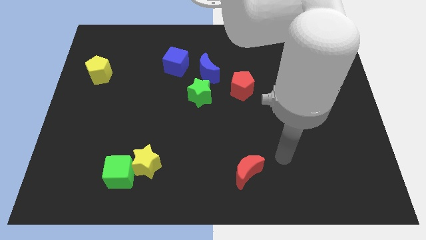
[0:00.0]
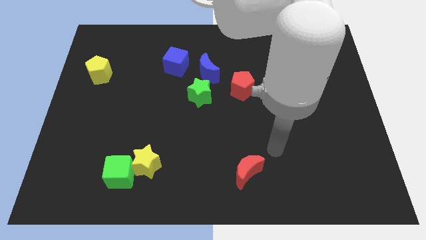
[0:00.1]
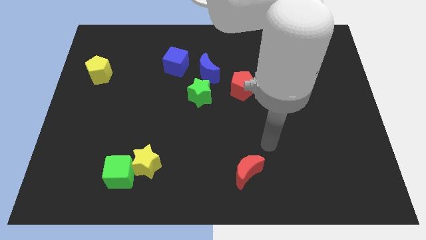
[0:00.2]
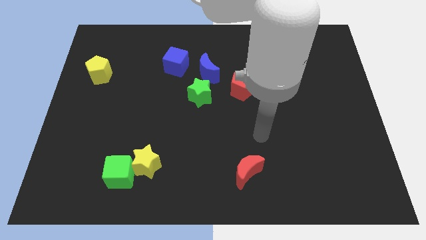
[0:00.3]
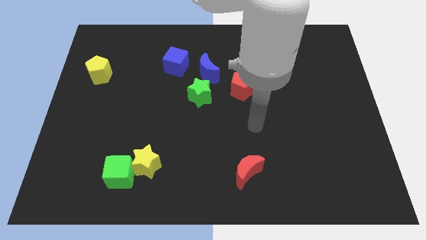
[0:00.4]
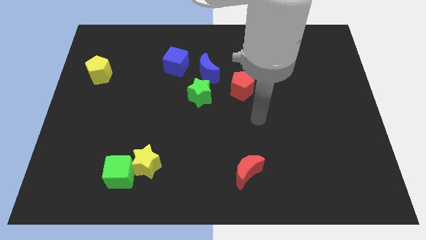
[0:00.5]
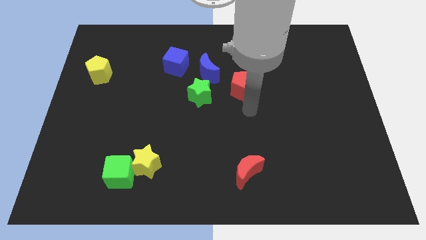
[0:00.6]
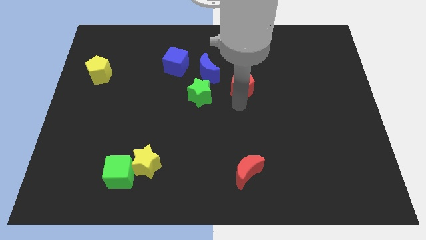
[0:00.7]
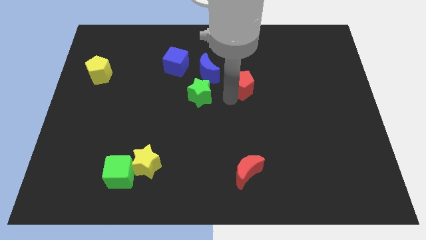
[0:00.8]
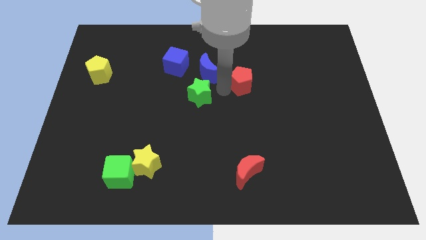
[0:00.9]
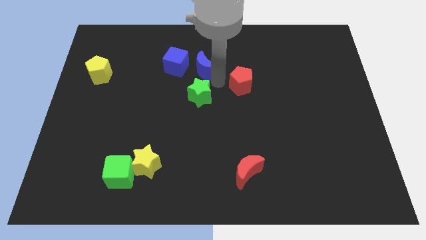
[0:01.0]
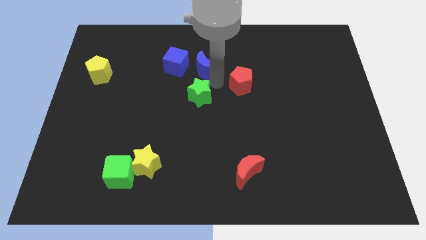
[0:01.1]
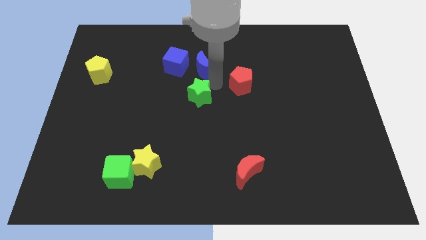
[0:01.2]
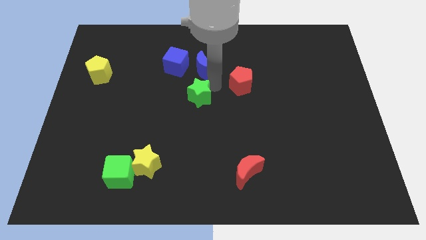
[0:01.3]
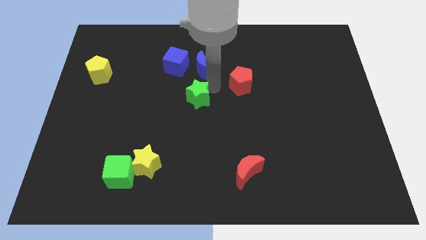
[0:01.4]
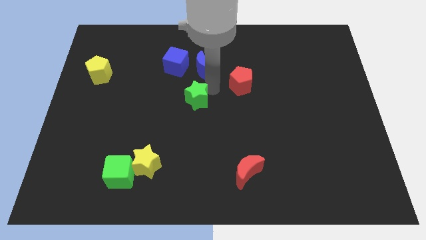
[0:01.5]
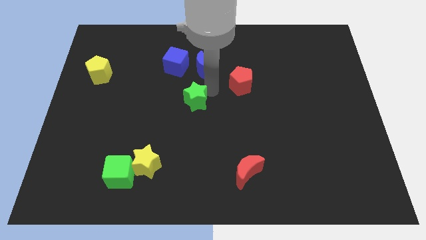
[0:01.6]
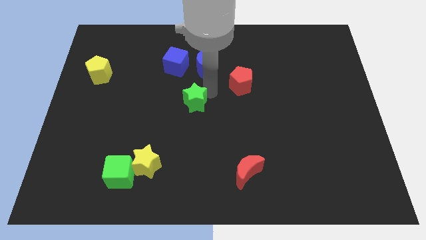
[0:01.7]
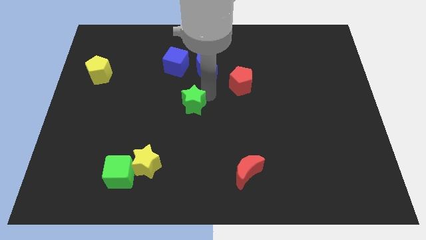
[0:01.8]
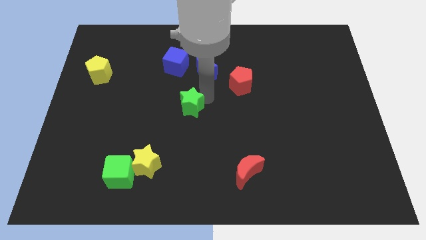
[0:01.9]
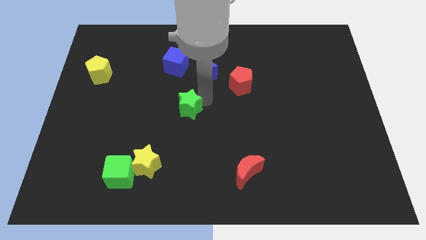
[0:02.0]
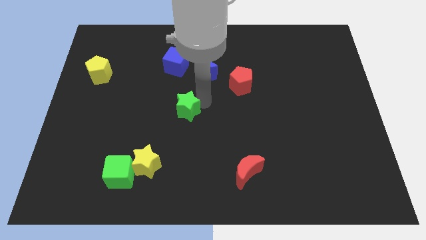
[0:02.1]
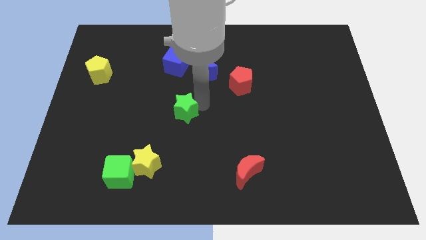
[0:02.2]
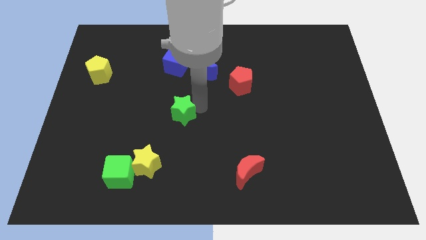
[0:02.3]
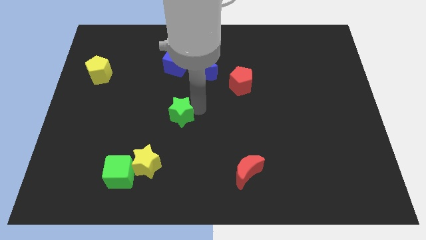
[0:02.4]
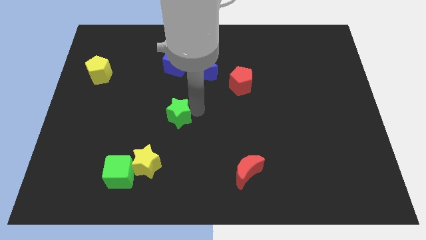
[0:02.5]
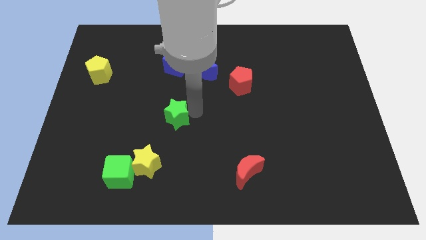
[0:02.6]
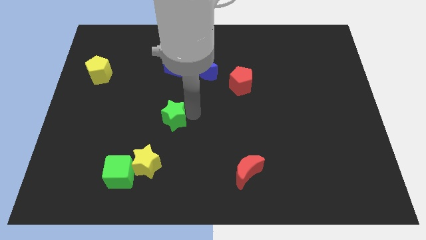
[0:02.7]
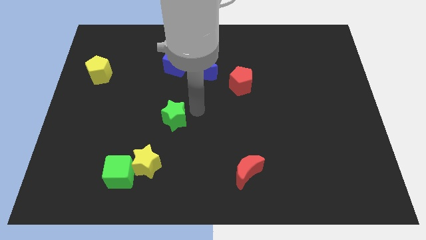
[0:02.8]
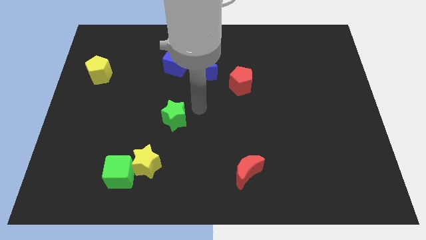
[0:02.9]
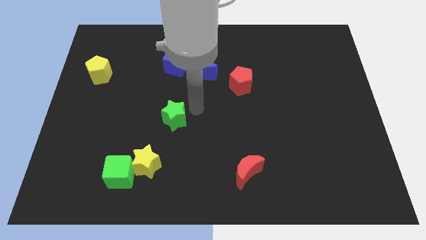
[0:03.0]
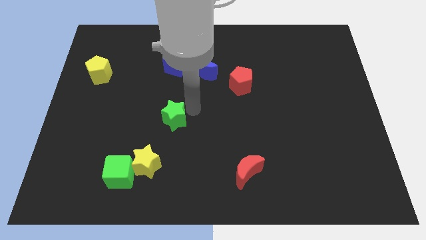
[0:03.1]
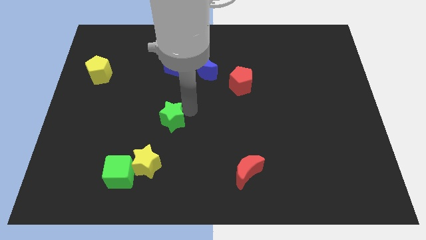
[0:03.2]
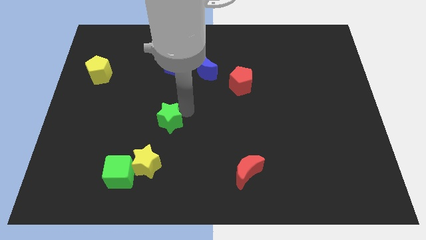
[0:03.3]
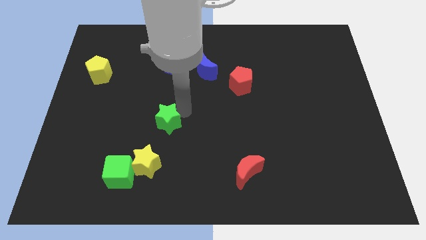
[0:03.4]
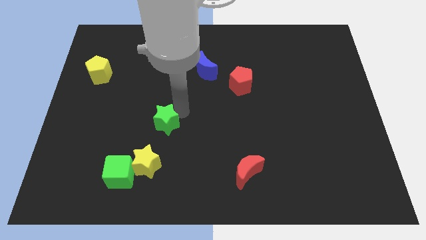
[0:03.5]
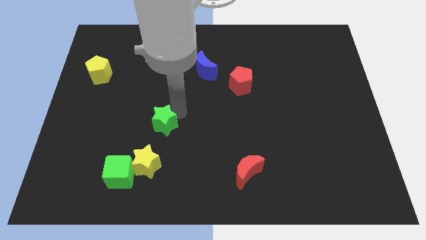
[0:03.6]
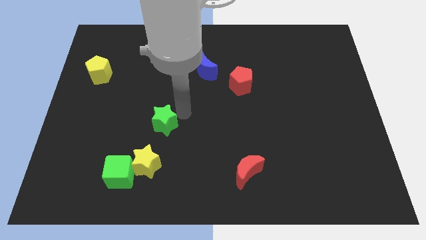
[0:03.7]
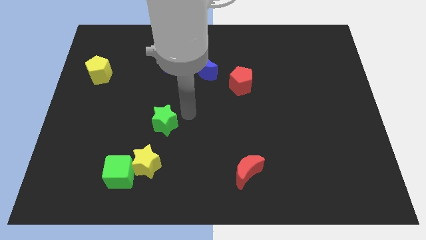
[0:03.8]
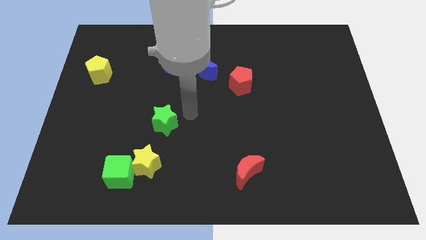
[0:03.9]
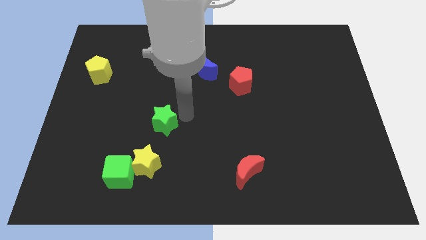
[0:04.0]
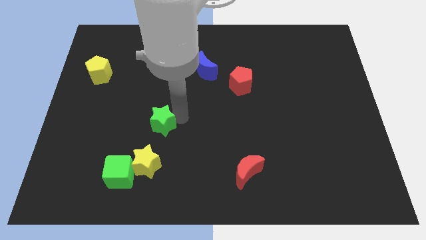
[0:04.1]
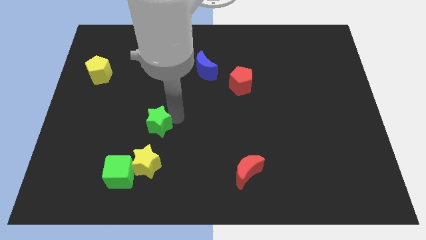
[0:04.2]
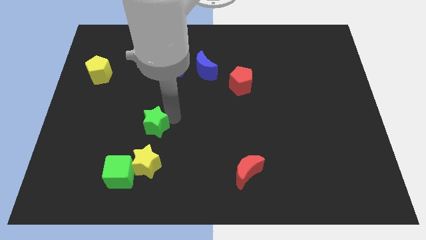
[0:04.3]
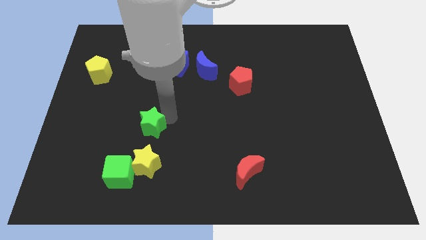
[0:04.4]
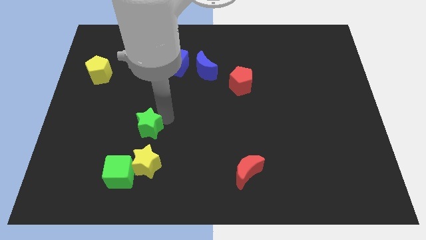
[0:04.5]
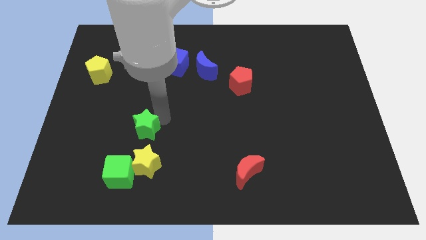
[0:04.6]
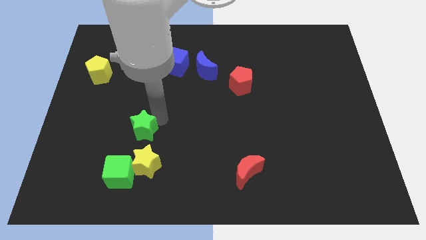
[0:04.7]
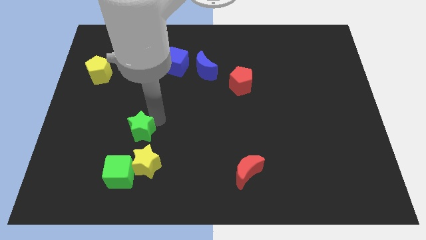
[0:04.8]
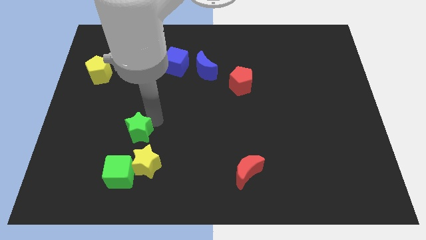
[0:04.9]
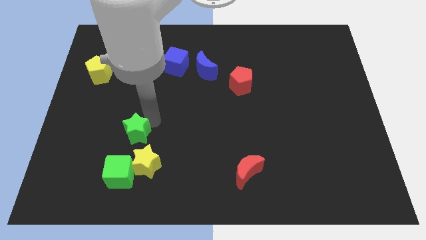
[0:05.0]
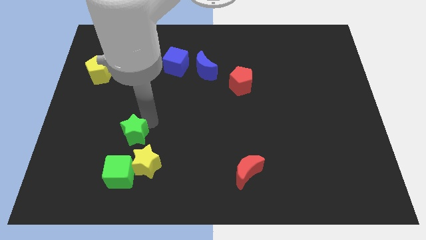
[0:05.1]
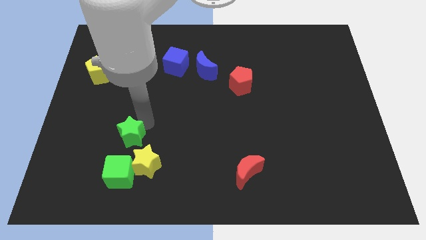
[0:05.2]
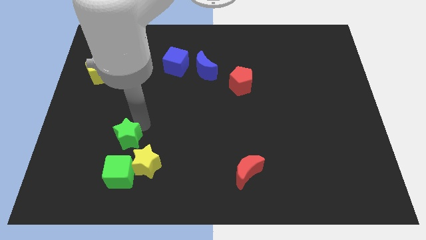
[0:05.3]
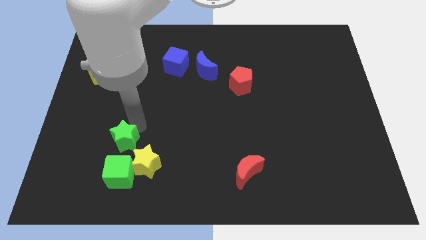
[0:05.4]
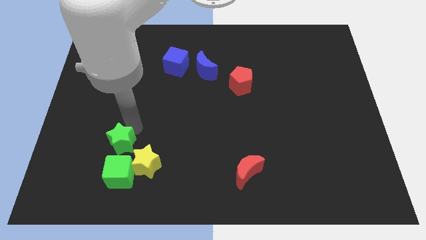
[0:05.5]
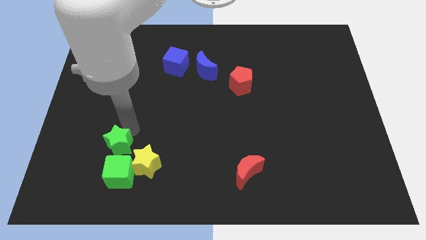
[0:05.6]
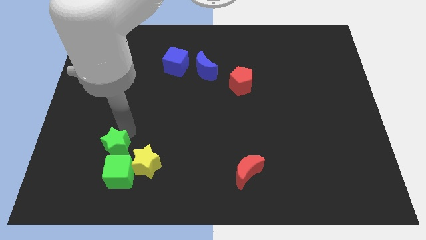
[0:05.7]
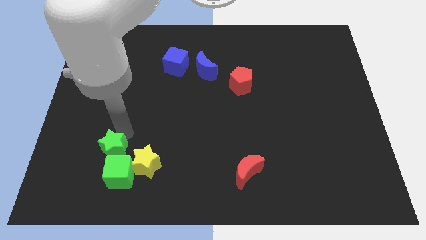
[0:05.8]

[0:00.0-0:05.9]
move the green star close to the green cube

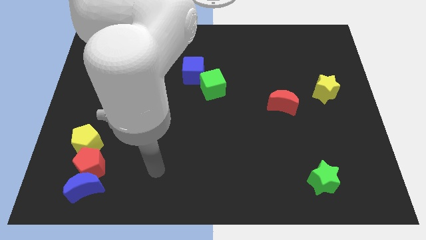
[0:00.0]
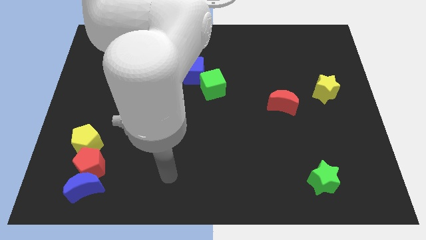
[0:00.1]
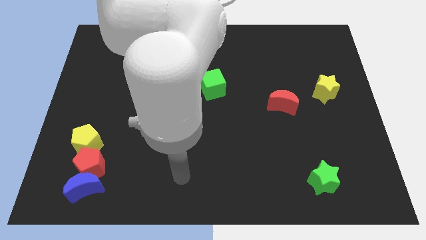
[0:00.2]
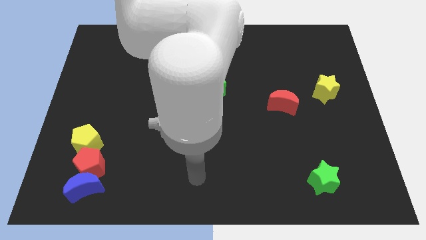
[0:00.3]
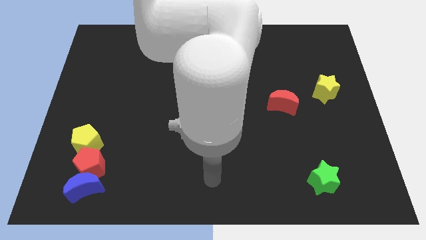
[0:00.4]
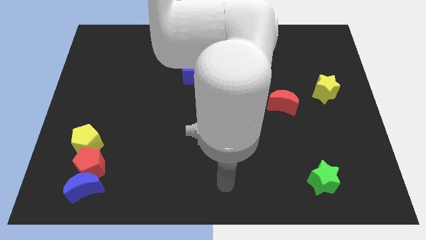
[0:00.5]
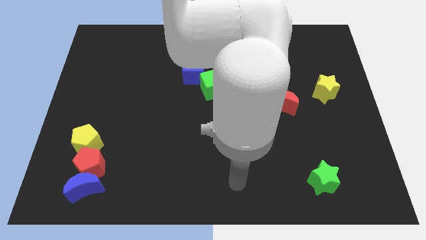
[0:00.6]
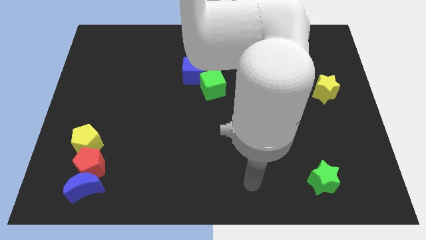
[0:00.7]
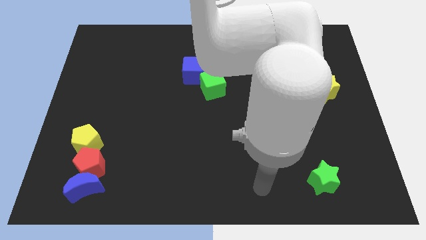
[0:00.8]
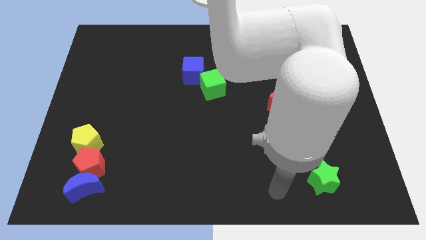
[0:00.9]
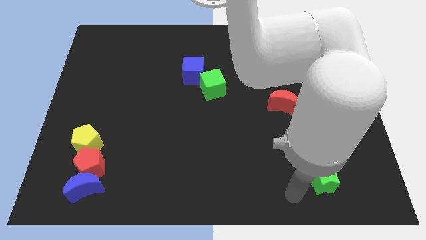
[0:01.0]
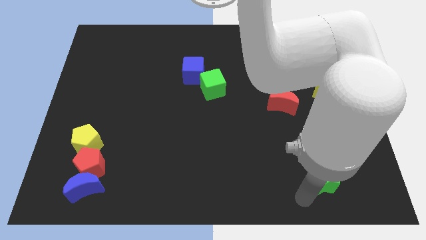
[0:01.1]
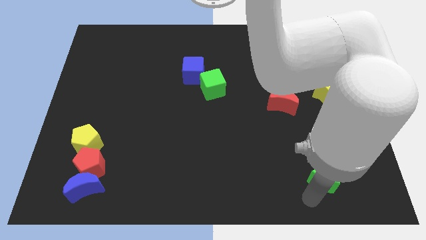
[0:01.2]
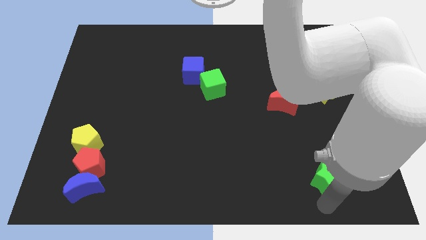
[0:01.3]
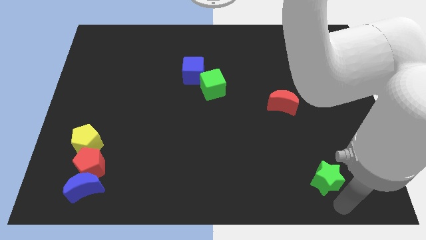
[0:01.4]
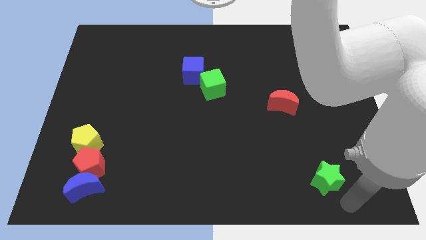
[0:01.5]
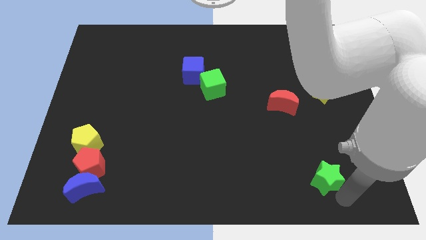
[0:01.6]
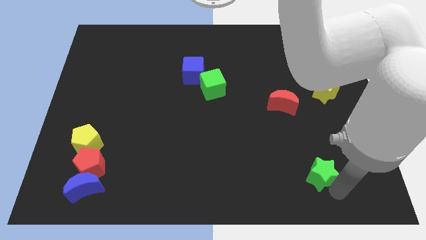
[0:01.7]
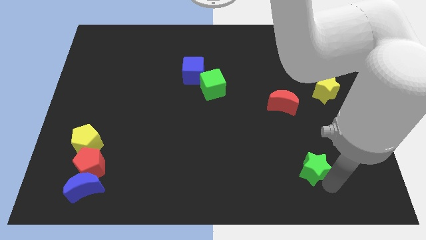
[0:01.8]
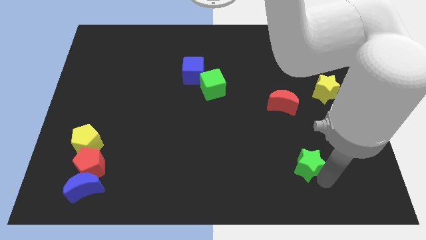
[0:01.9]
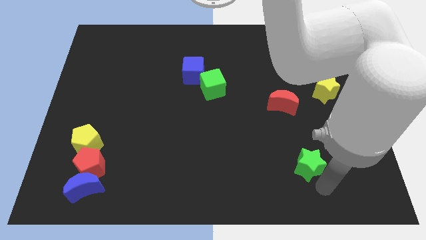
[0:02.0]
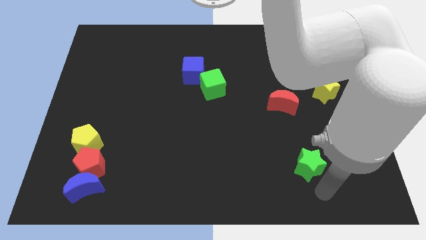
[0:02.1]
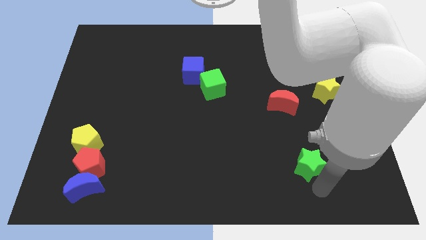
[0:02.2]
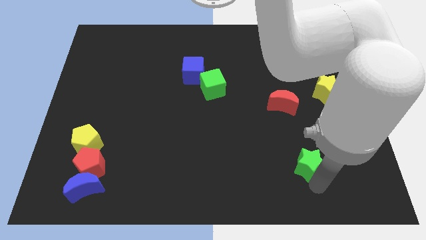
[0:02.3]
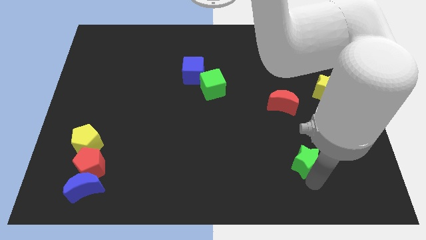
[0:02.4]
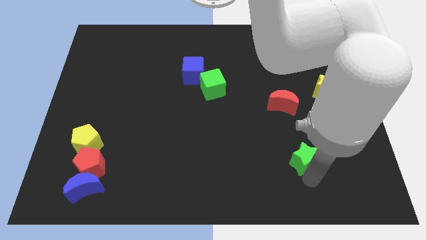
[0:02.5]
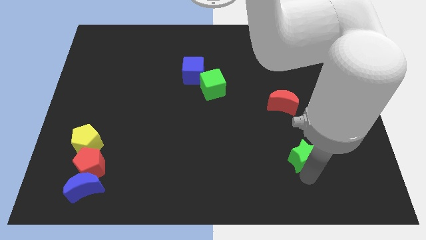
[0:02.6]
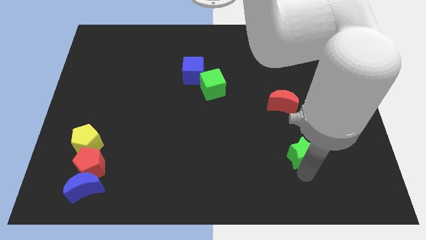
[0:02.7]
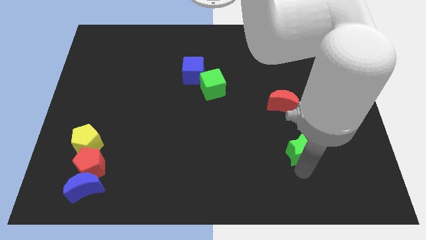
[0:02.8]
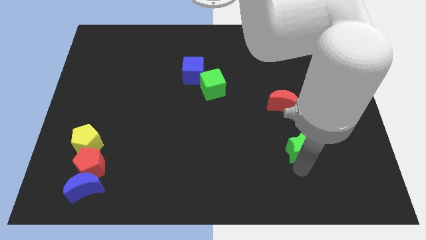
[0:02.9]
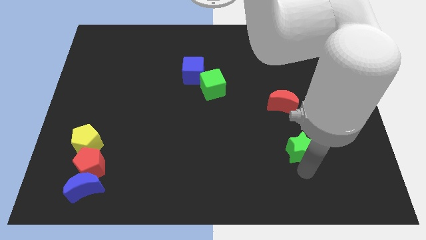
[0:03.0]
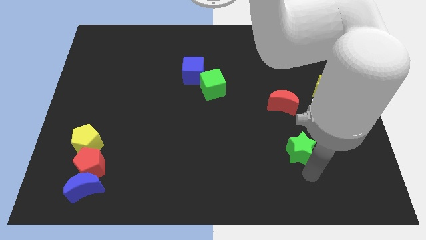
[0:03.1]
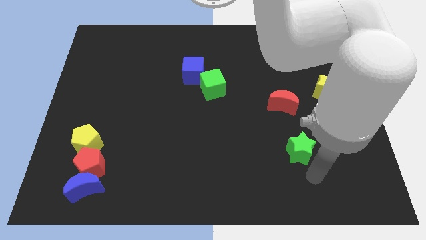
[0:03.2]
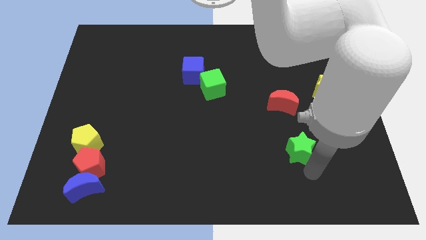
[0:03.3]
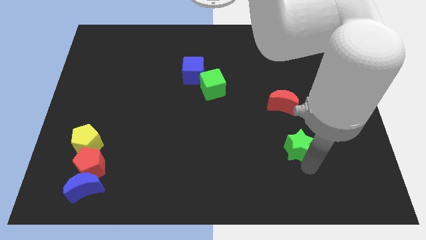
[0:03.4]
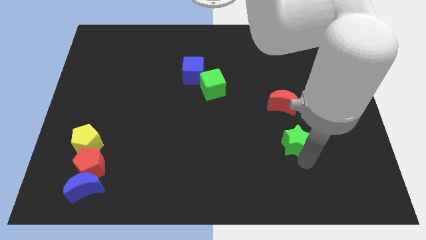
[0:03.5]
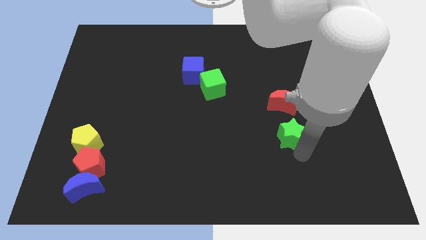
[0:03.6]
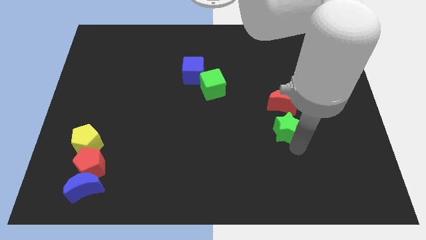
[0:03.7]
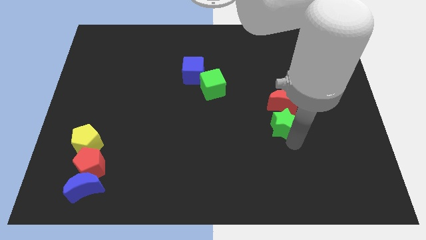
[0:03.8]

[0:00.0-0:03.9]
push the green star next to the red moon
